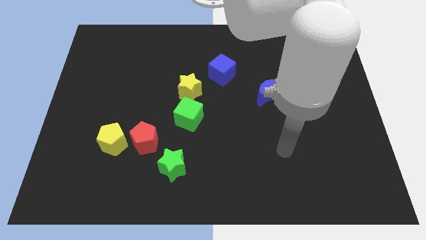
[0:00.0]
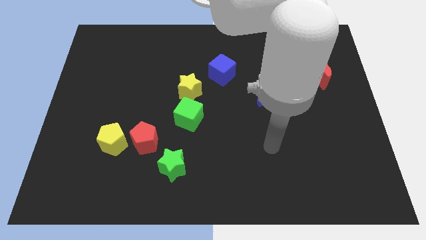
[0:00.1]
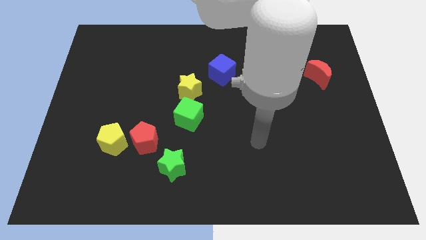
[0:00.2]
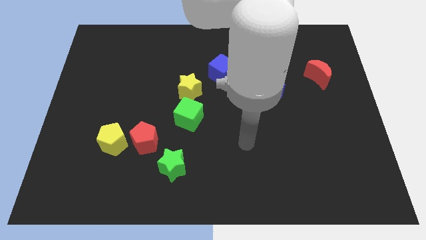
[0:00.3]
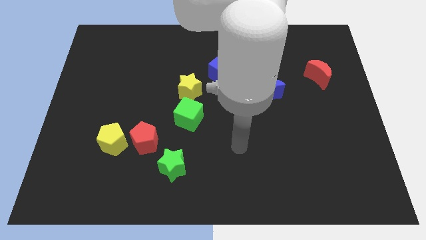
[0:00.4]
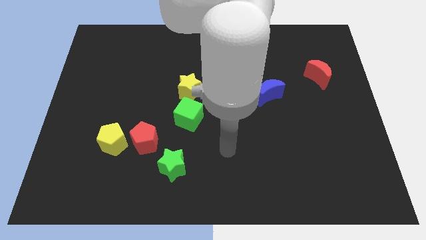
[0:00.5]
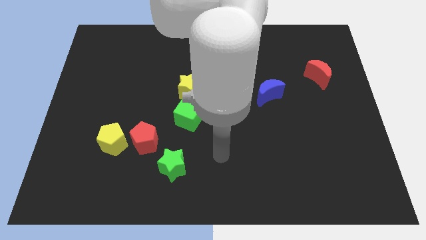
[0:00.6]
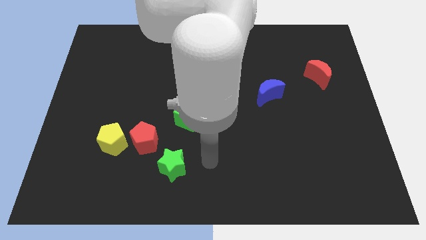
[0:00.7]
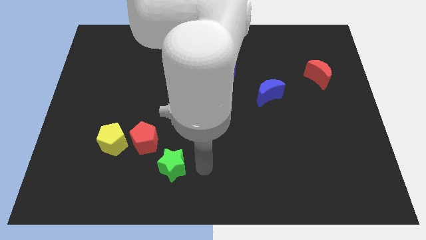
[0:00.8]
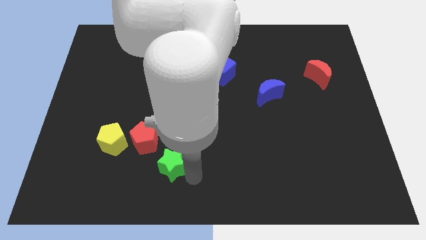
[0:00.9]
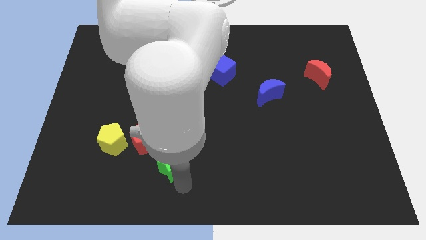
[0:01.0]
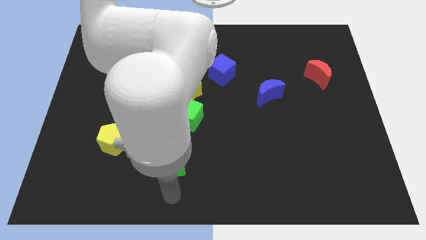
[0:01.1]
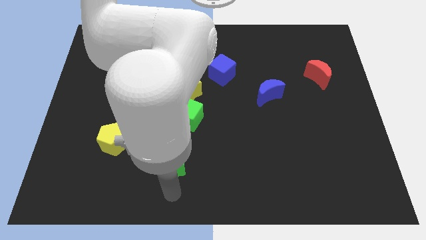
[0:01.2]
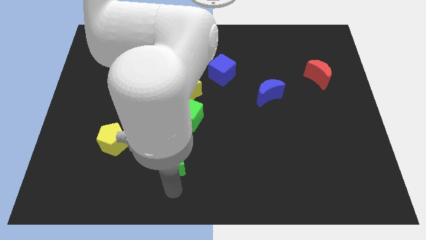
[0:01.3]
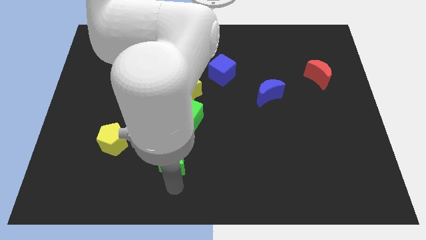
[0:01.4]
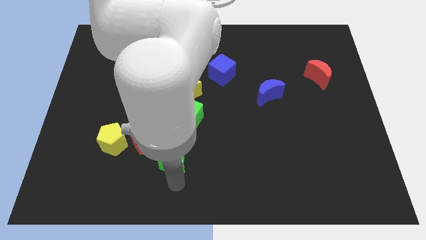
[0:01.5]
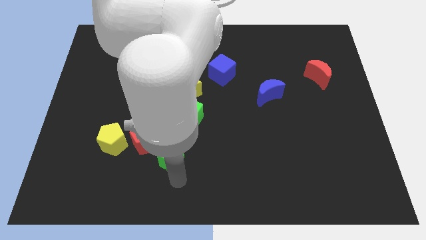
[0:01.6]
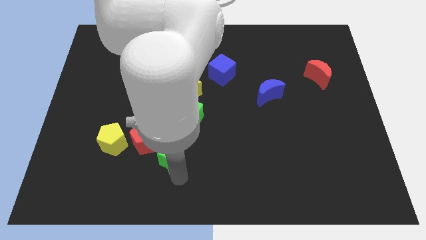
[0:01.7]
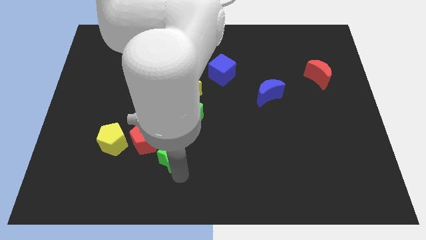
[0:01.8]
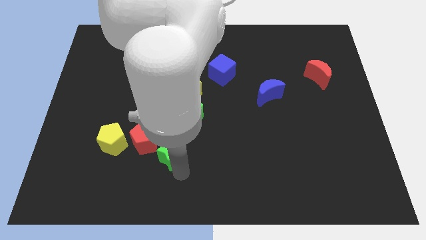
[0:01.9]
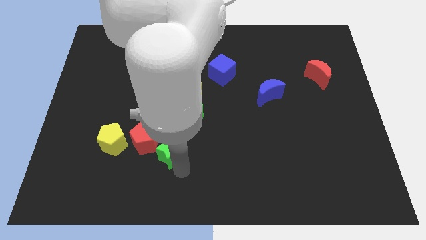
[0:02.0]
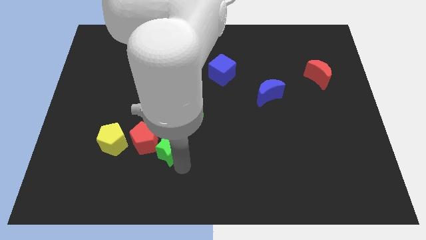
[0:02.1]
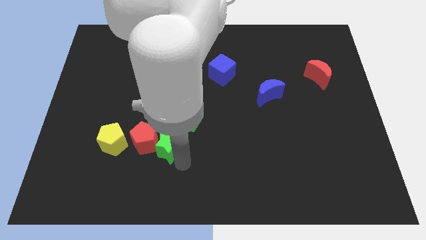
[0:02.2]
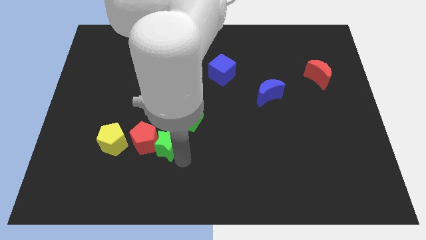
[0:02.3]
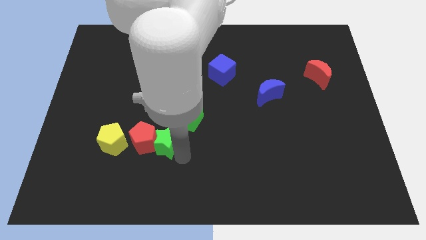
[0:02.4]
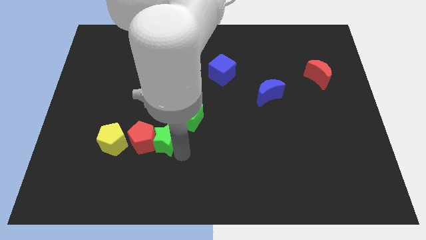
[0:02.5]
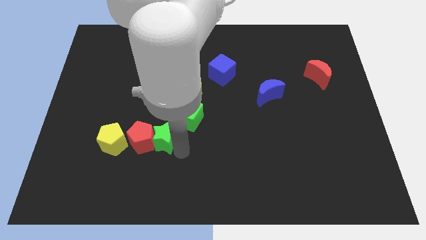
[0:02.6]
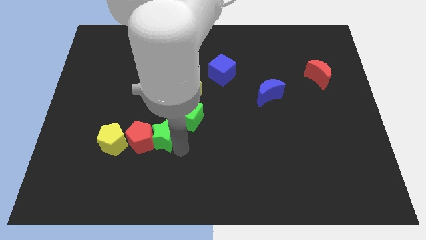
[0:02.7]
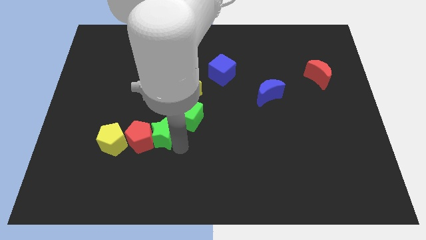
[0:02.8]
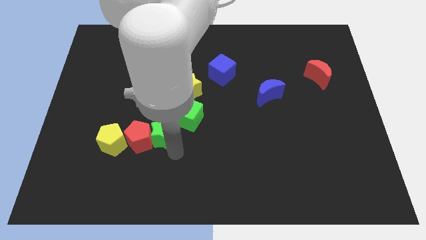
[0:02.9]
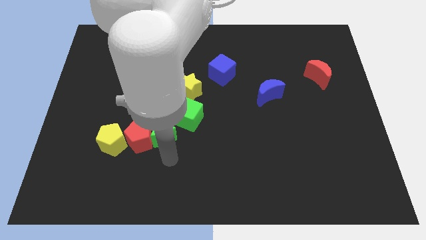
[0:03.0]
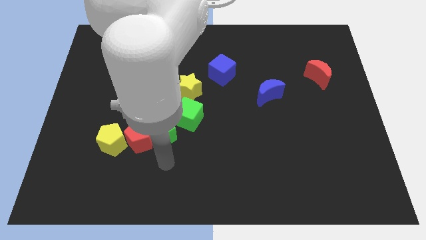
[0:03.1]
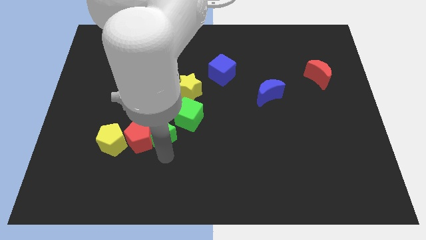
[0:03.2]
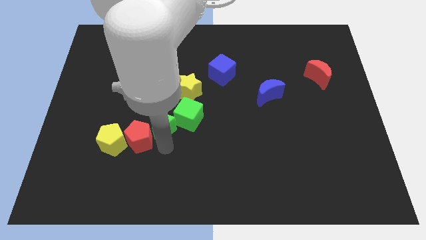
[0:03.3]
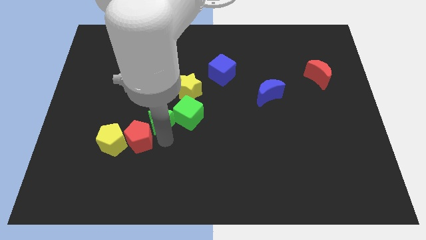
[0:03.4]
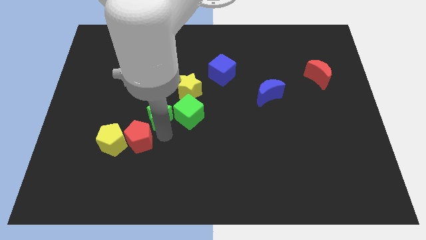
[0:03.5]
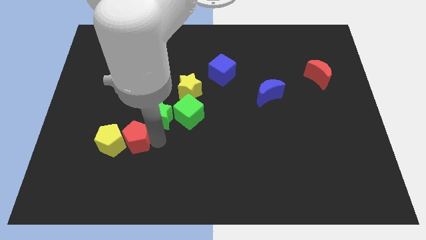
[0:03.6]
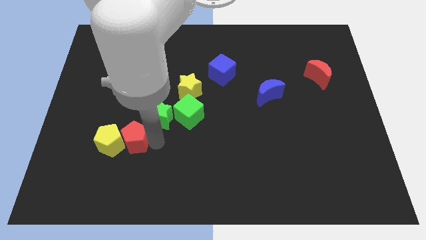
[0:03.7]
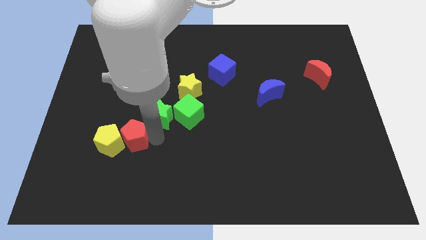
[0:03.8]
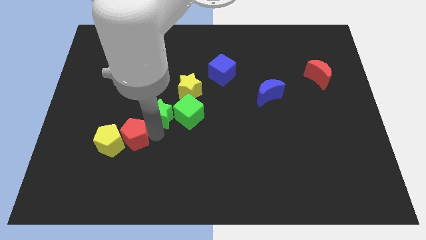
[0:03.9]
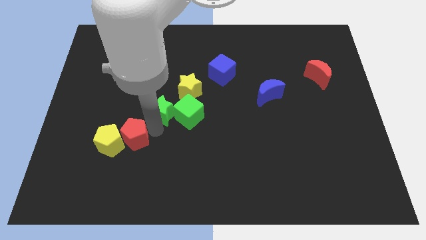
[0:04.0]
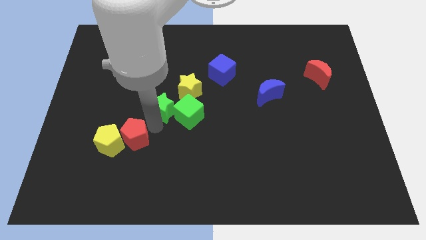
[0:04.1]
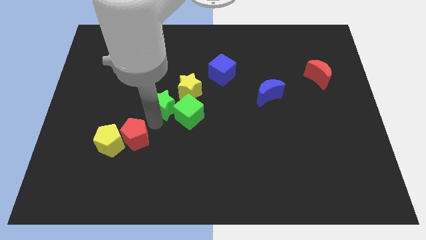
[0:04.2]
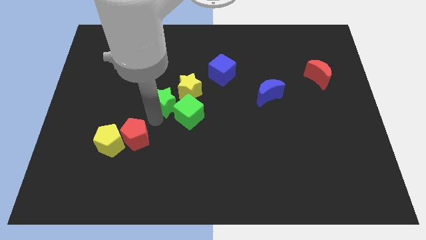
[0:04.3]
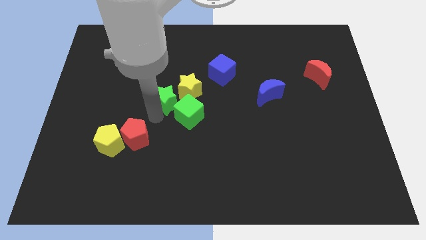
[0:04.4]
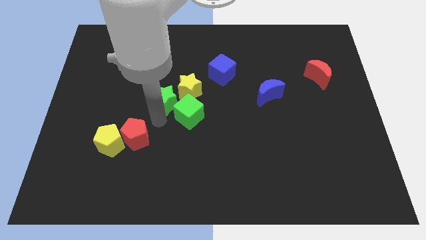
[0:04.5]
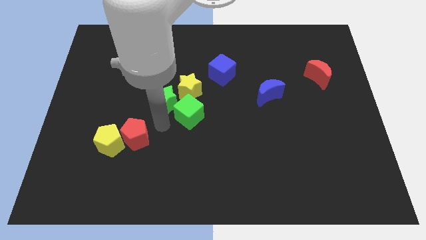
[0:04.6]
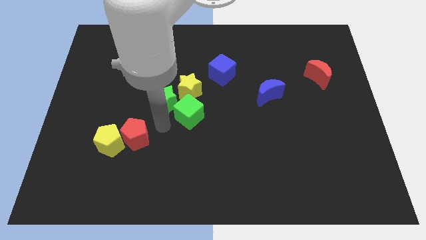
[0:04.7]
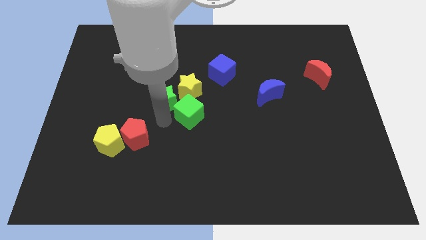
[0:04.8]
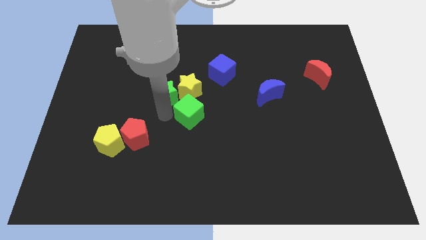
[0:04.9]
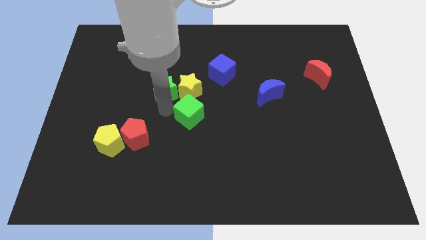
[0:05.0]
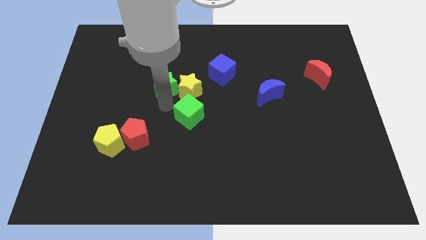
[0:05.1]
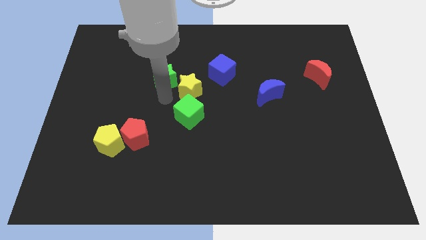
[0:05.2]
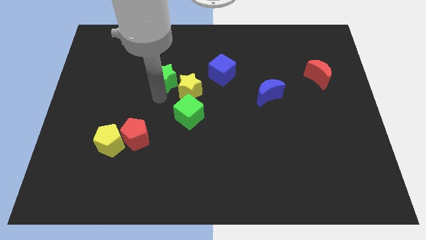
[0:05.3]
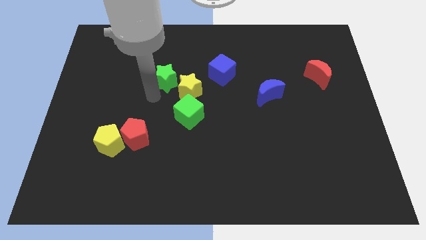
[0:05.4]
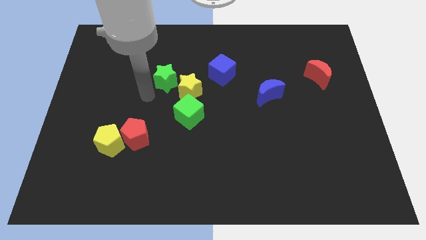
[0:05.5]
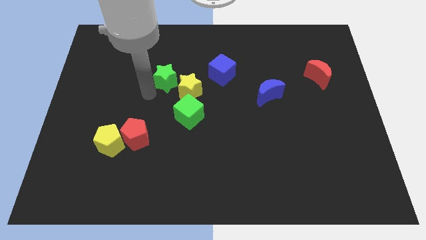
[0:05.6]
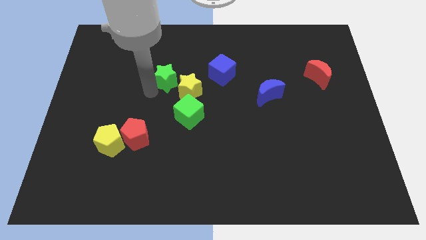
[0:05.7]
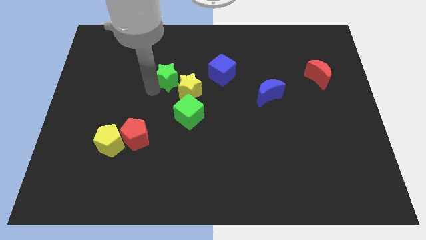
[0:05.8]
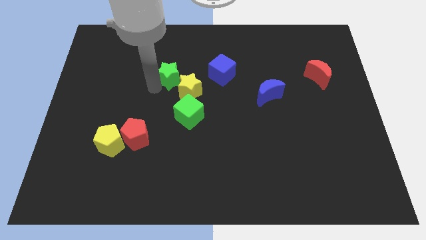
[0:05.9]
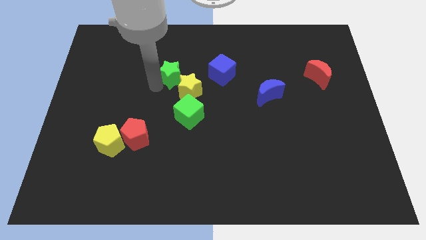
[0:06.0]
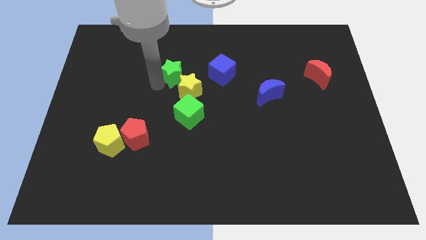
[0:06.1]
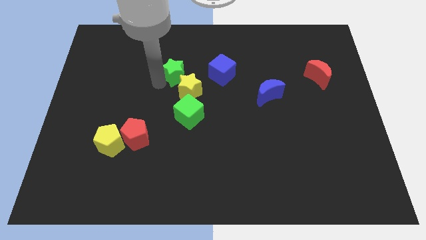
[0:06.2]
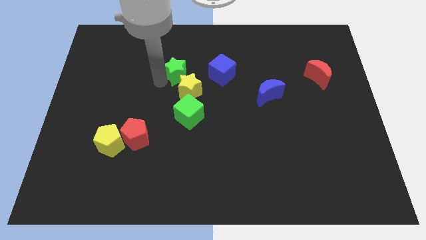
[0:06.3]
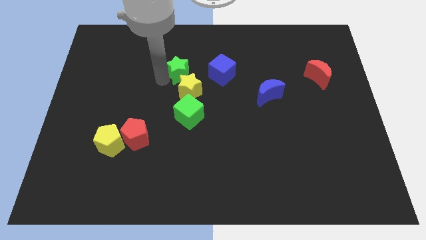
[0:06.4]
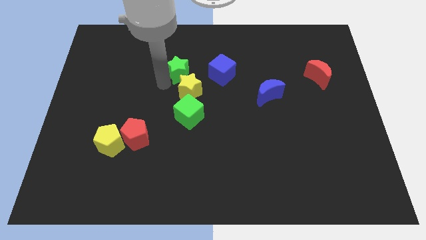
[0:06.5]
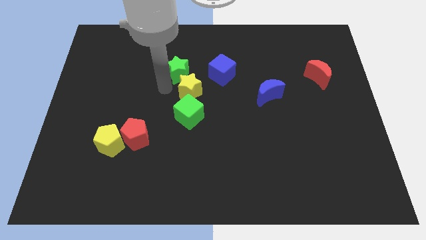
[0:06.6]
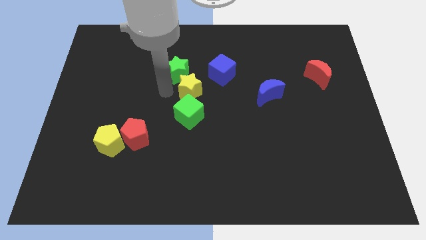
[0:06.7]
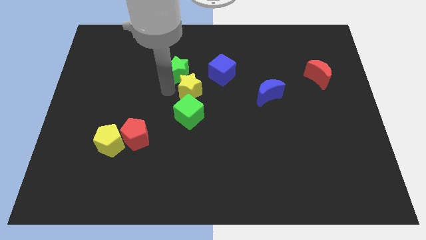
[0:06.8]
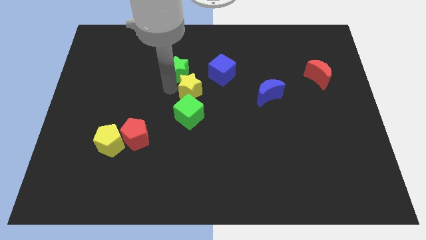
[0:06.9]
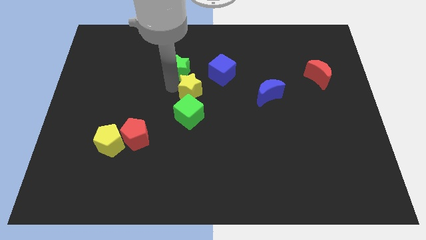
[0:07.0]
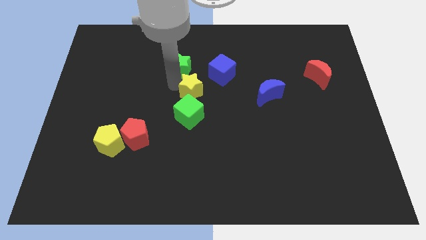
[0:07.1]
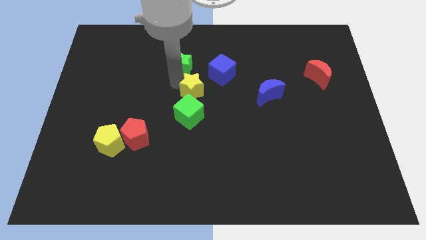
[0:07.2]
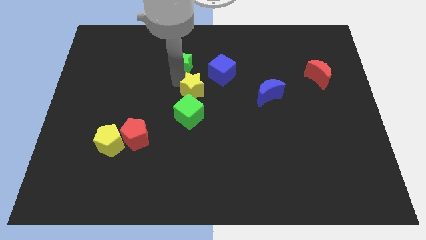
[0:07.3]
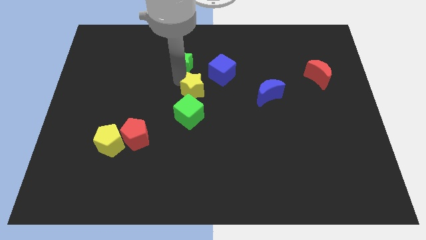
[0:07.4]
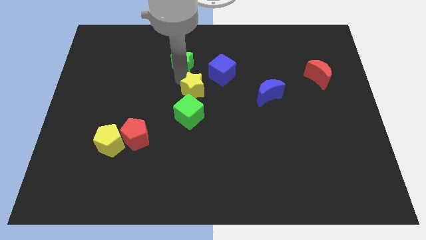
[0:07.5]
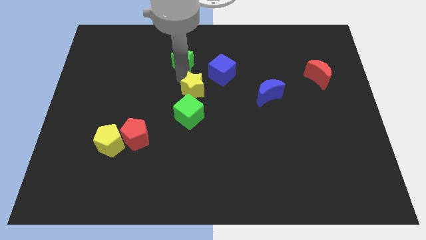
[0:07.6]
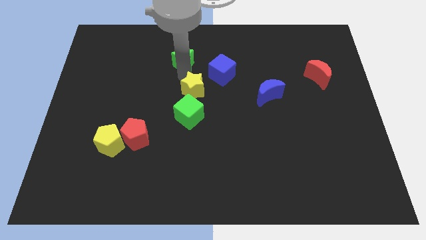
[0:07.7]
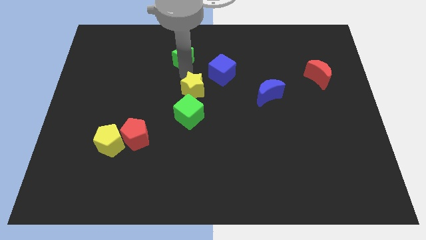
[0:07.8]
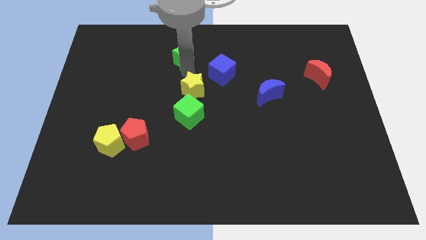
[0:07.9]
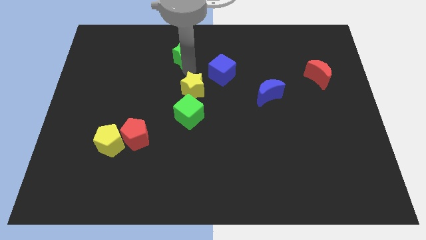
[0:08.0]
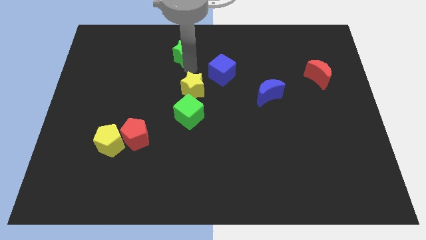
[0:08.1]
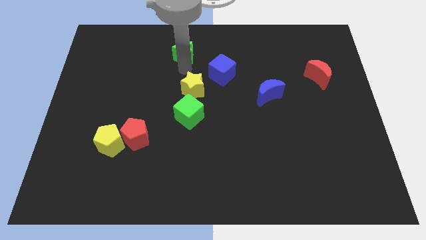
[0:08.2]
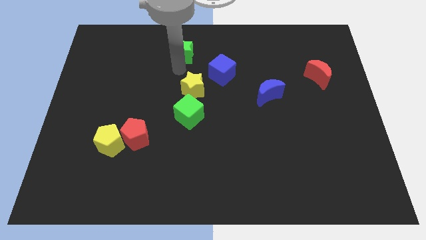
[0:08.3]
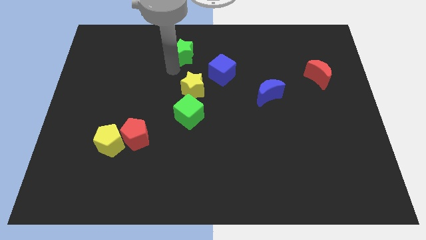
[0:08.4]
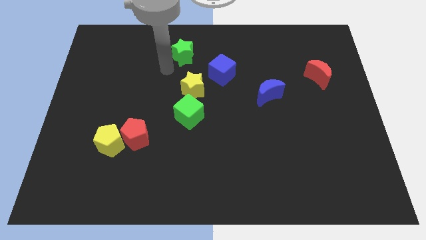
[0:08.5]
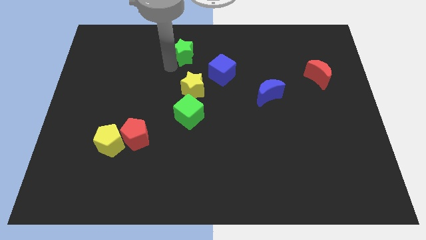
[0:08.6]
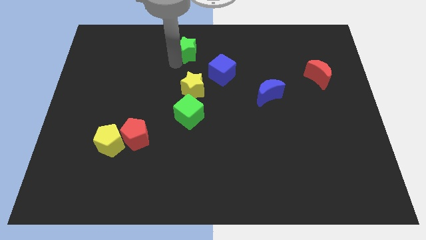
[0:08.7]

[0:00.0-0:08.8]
push the green star to the top
